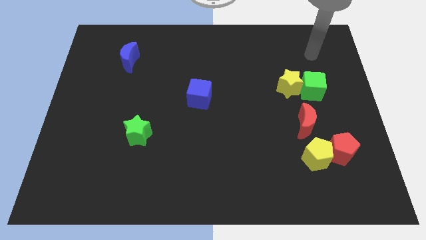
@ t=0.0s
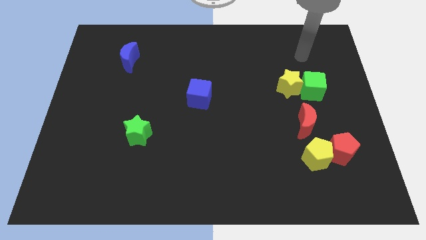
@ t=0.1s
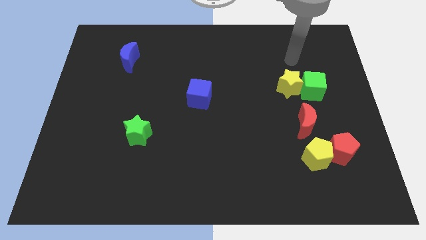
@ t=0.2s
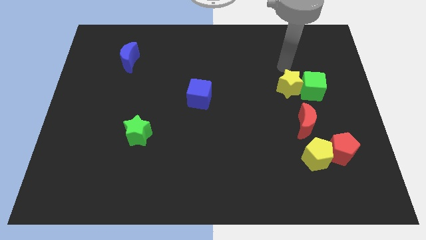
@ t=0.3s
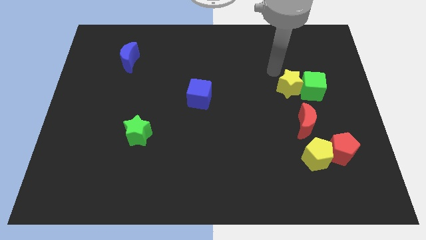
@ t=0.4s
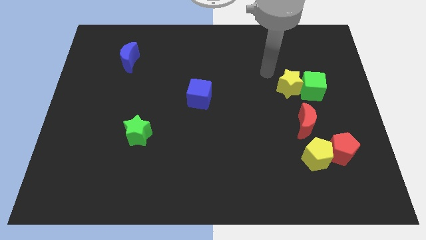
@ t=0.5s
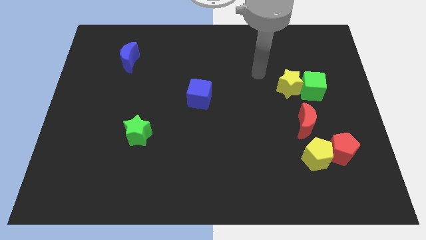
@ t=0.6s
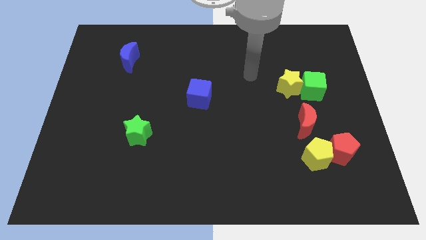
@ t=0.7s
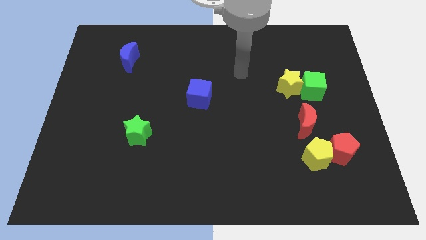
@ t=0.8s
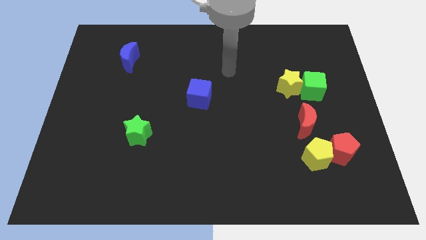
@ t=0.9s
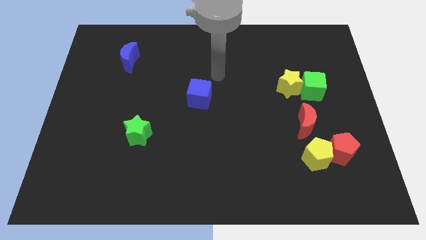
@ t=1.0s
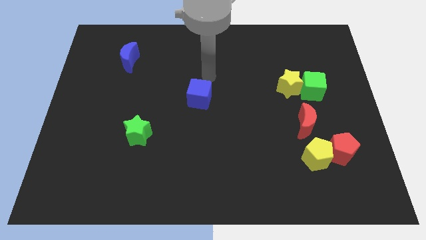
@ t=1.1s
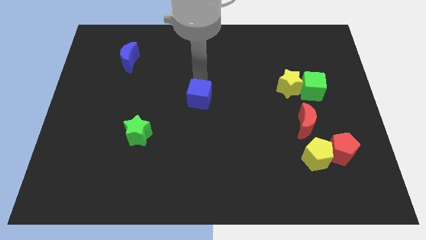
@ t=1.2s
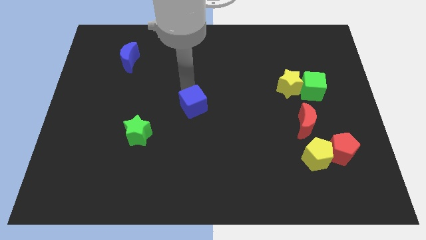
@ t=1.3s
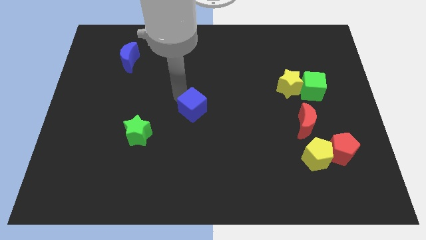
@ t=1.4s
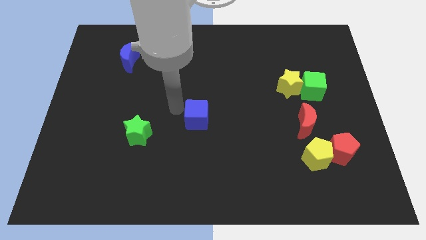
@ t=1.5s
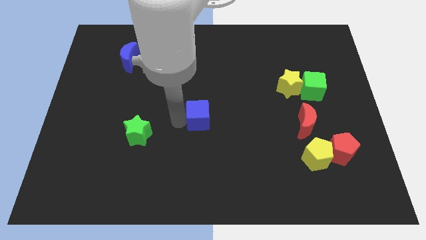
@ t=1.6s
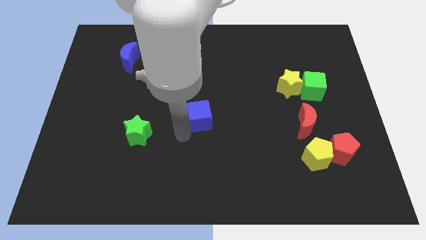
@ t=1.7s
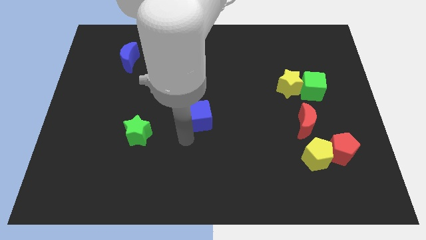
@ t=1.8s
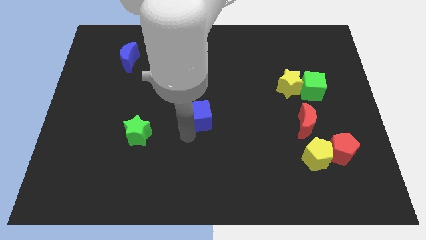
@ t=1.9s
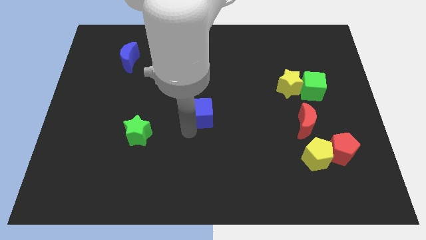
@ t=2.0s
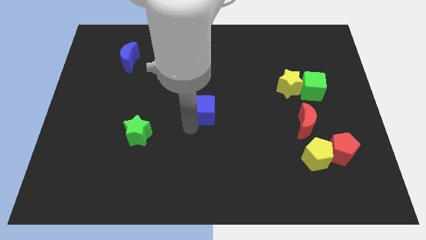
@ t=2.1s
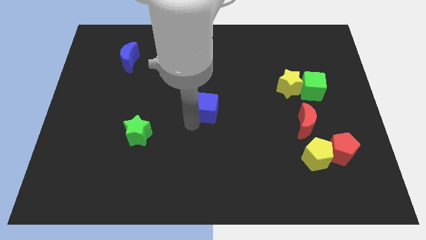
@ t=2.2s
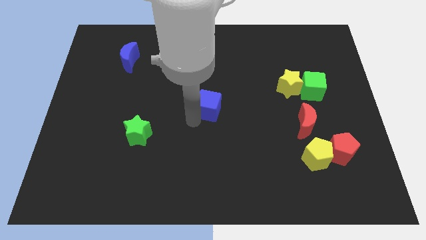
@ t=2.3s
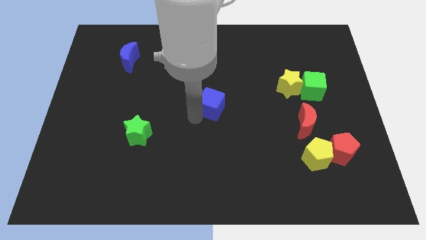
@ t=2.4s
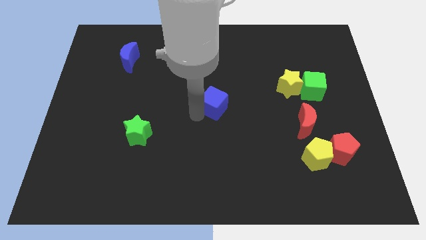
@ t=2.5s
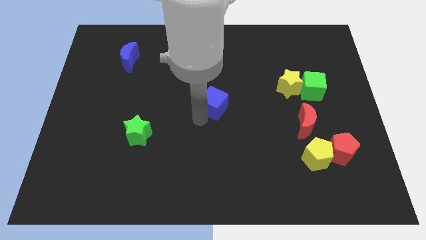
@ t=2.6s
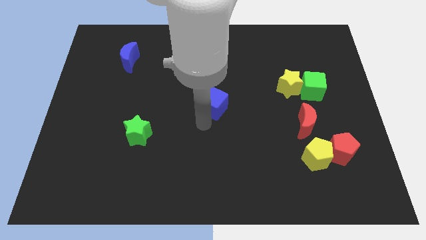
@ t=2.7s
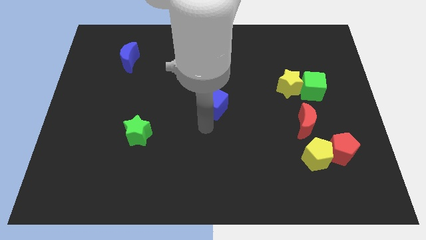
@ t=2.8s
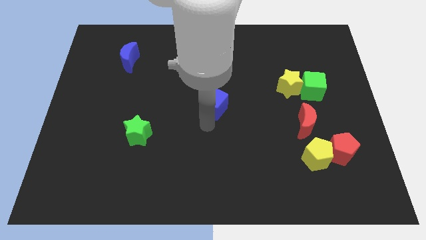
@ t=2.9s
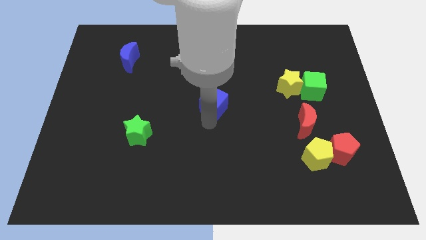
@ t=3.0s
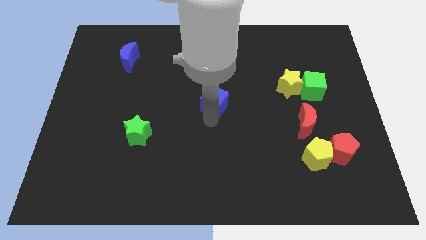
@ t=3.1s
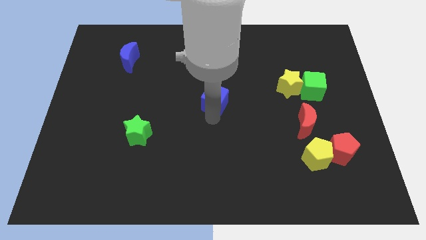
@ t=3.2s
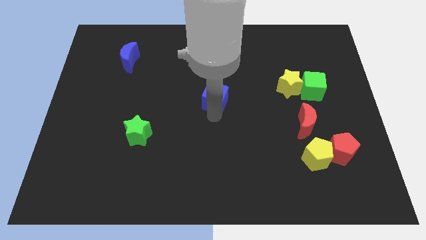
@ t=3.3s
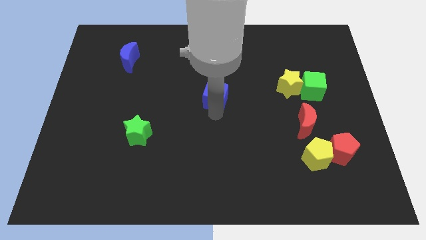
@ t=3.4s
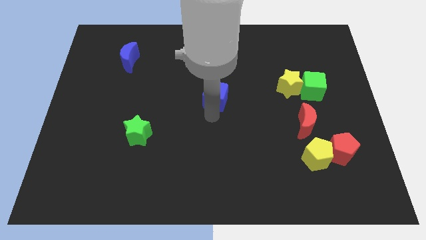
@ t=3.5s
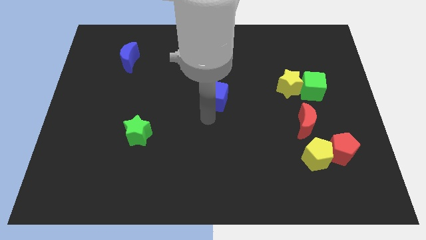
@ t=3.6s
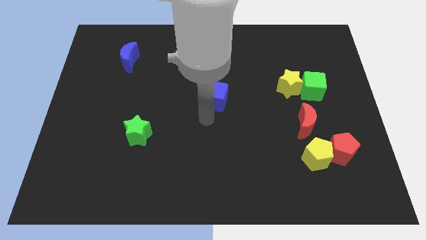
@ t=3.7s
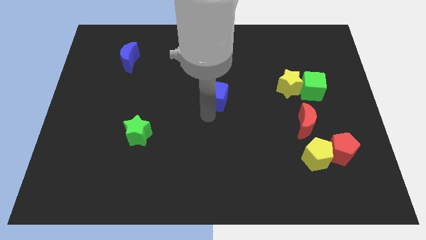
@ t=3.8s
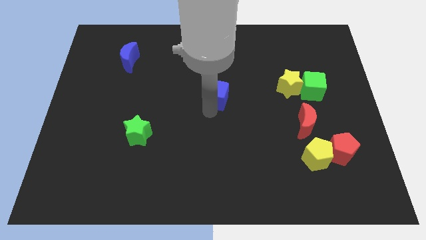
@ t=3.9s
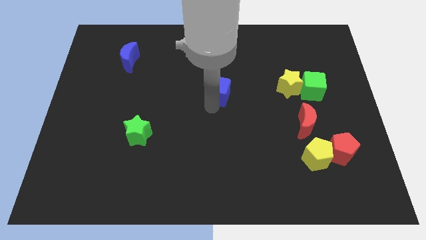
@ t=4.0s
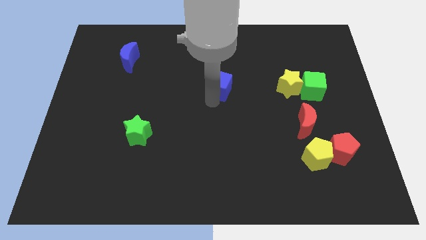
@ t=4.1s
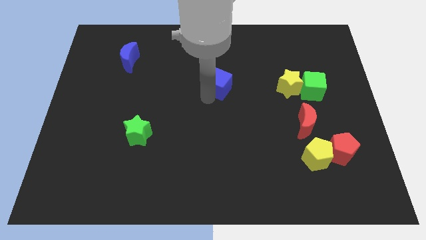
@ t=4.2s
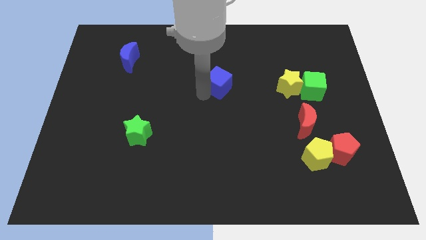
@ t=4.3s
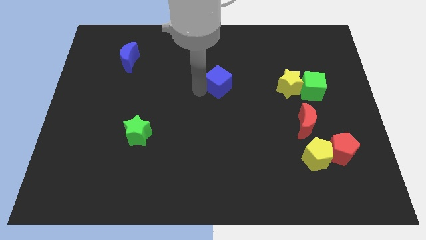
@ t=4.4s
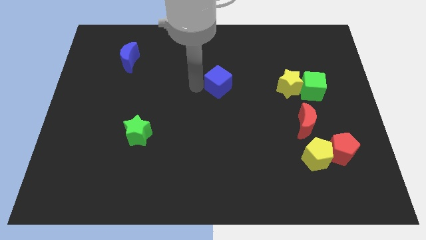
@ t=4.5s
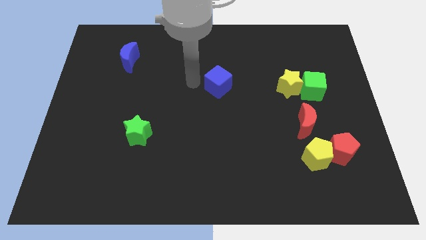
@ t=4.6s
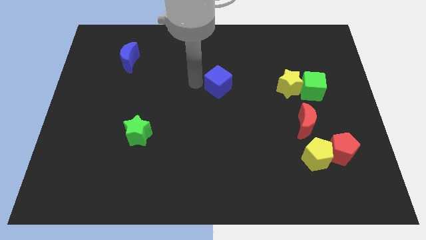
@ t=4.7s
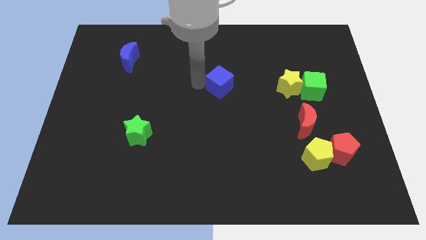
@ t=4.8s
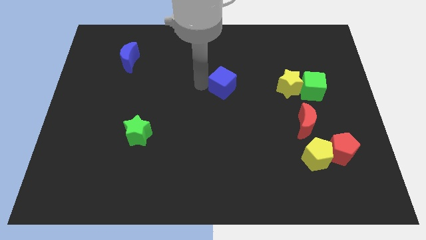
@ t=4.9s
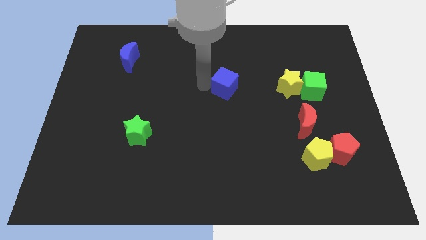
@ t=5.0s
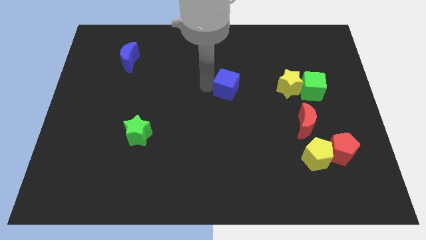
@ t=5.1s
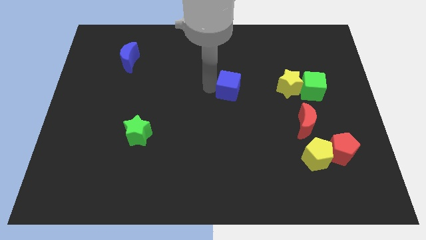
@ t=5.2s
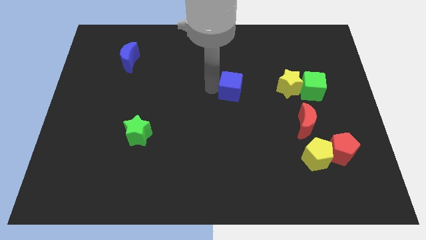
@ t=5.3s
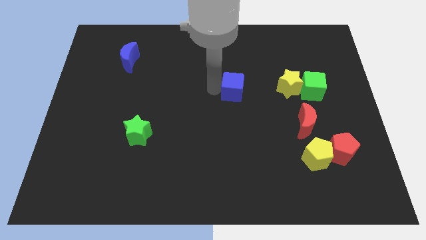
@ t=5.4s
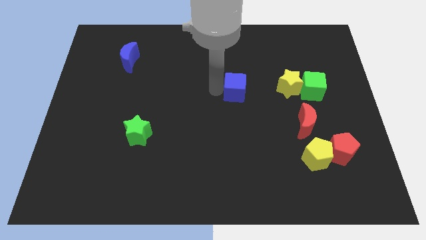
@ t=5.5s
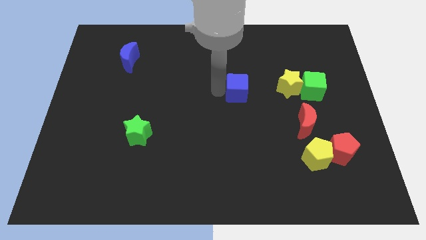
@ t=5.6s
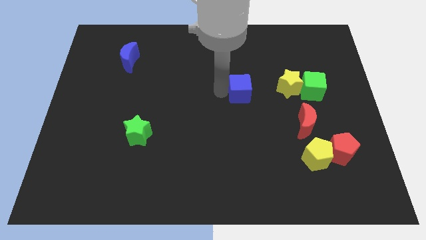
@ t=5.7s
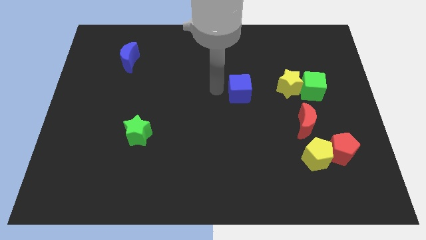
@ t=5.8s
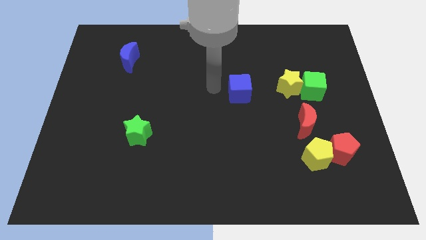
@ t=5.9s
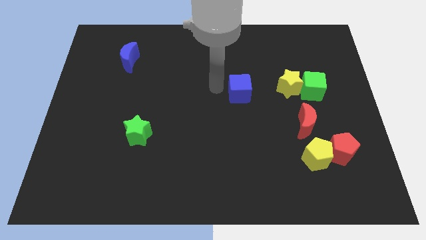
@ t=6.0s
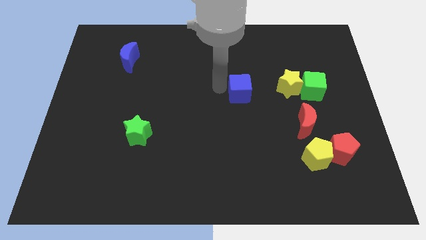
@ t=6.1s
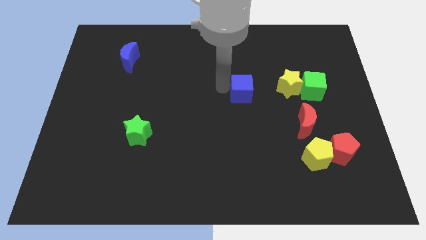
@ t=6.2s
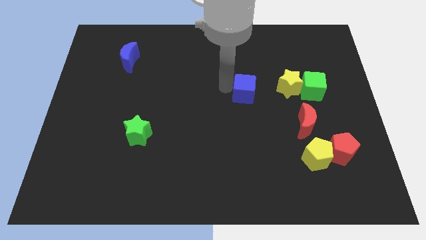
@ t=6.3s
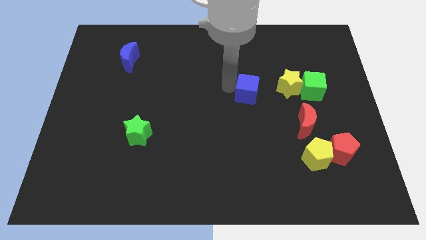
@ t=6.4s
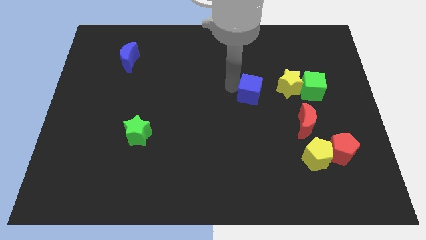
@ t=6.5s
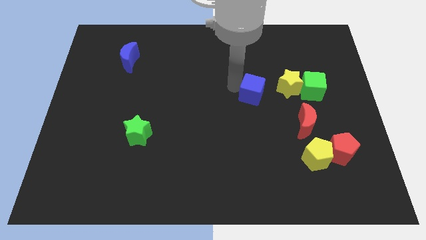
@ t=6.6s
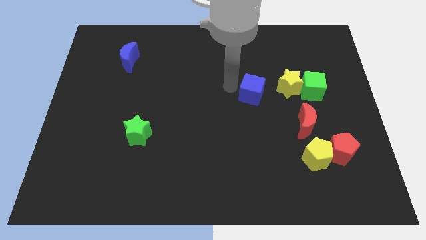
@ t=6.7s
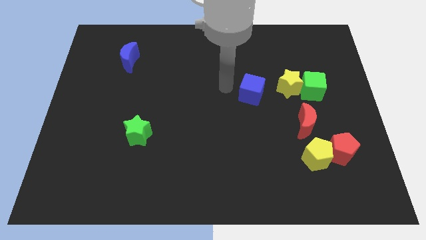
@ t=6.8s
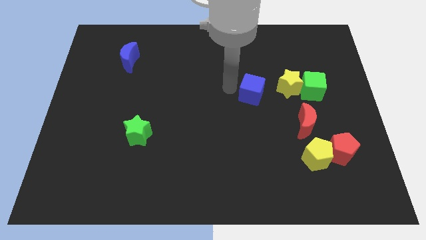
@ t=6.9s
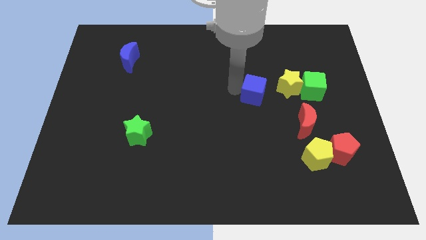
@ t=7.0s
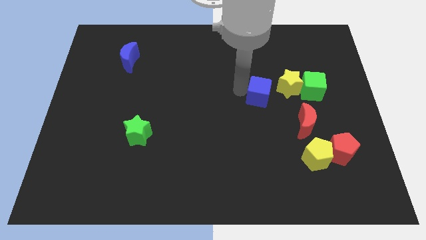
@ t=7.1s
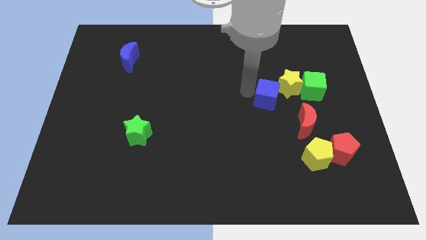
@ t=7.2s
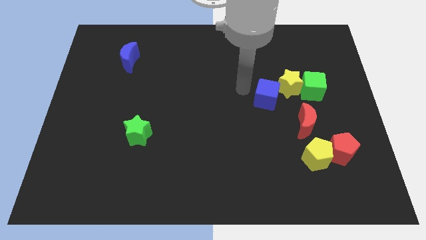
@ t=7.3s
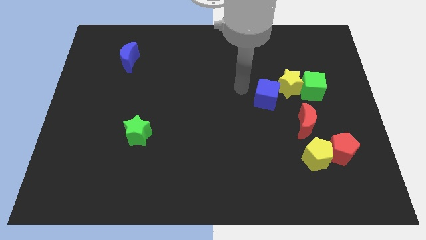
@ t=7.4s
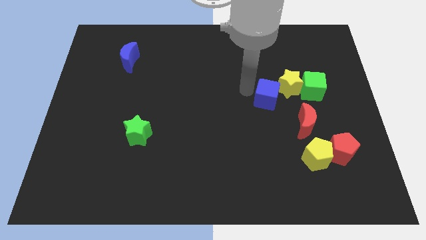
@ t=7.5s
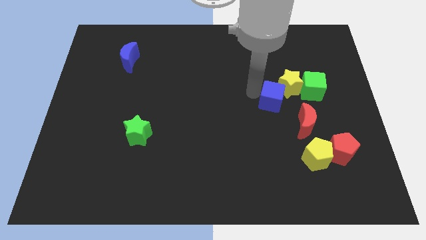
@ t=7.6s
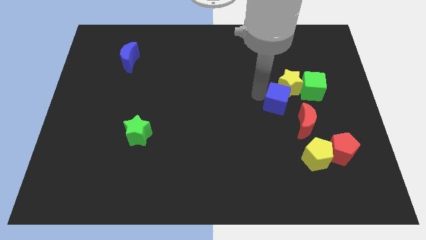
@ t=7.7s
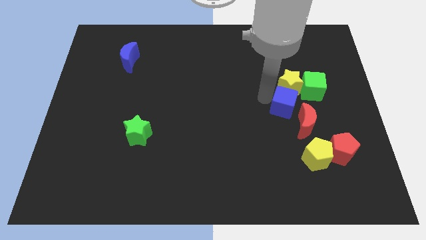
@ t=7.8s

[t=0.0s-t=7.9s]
slide the blue cube to the right
